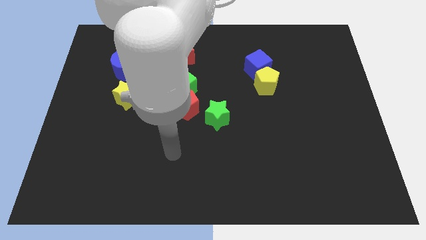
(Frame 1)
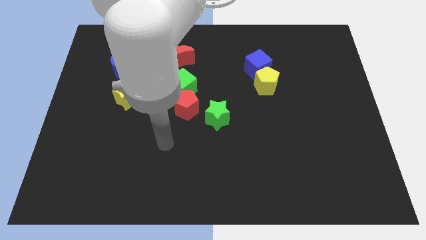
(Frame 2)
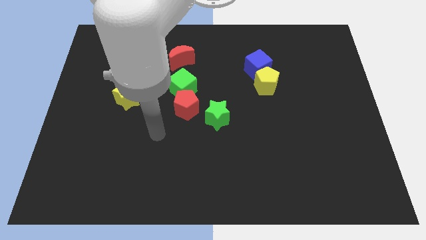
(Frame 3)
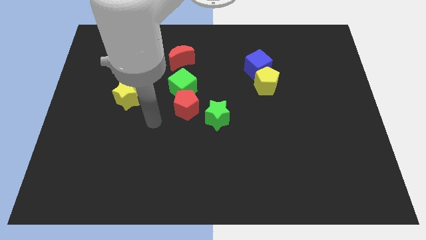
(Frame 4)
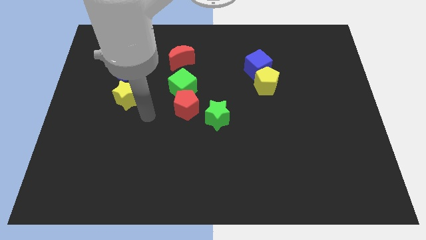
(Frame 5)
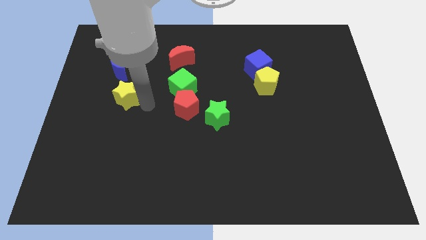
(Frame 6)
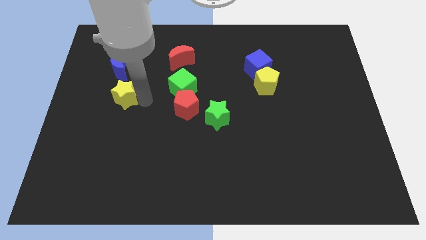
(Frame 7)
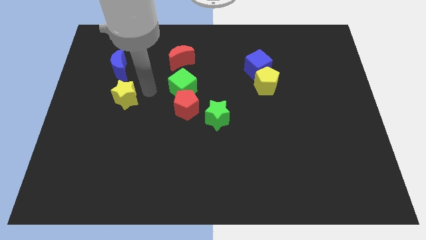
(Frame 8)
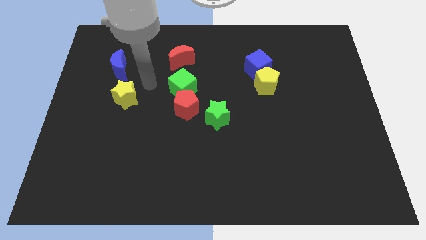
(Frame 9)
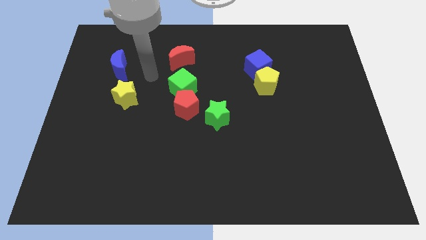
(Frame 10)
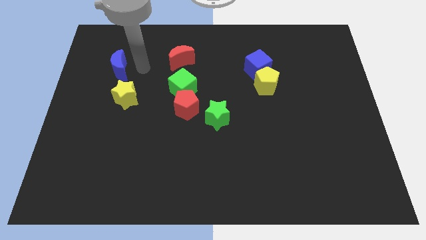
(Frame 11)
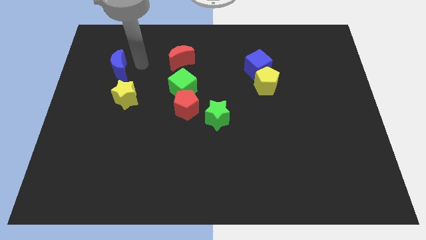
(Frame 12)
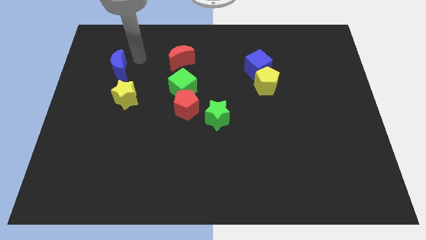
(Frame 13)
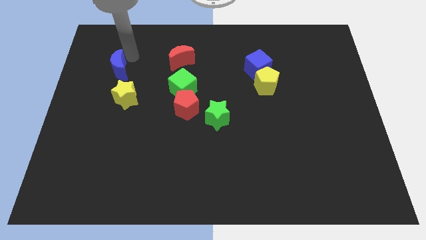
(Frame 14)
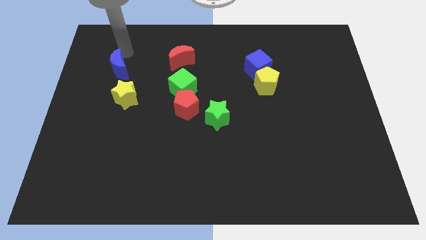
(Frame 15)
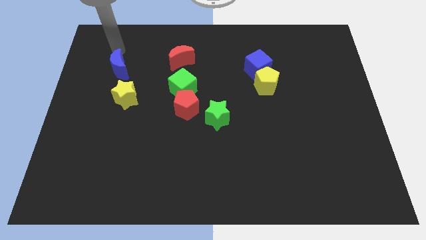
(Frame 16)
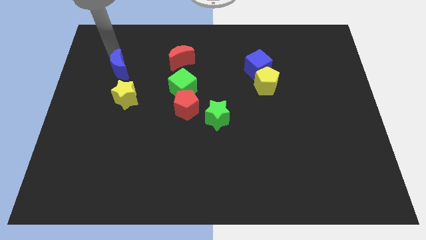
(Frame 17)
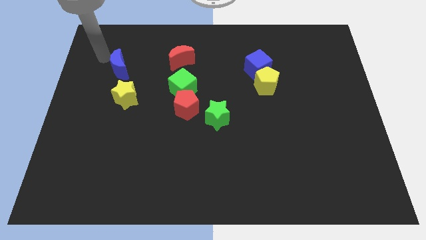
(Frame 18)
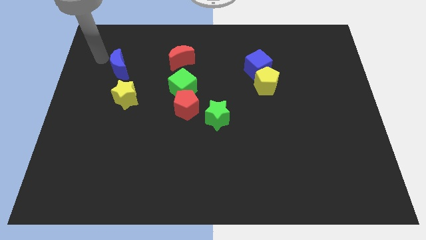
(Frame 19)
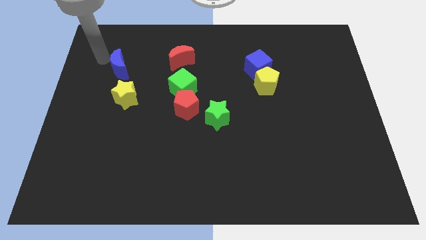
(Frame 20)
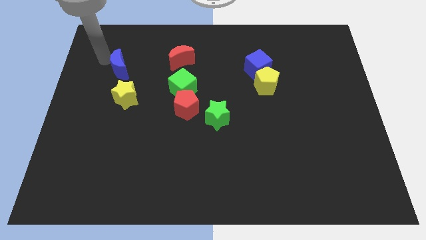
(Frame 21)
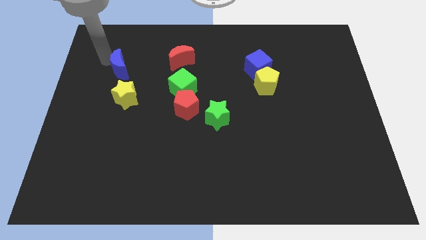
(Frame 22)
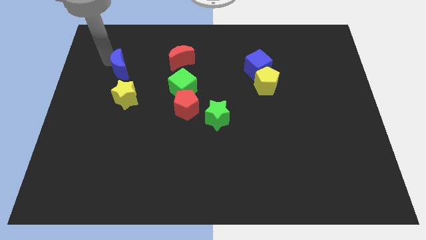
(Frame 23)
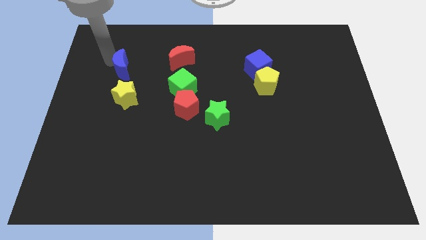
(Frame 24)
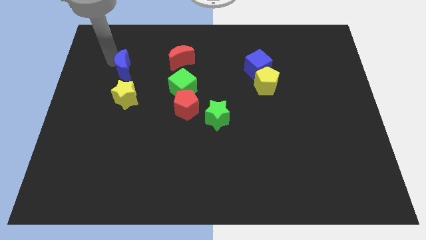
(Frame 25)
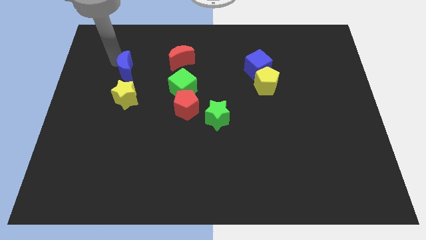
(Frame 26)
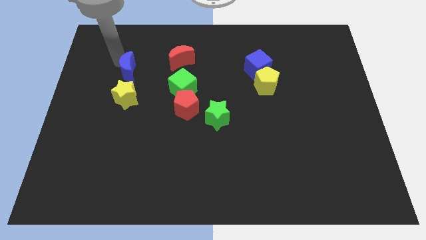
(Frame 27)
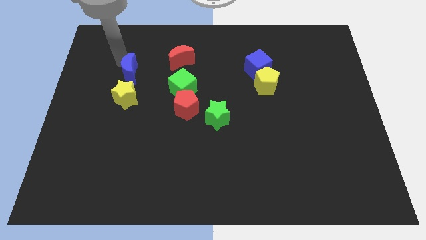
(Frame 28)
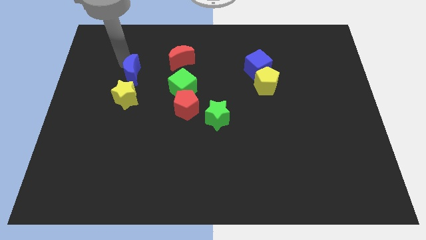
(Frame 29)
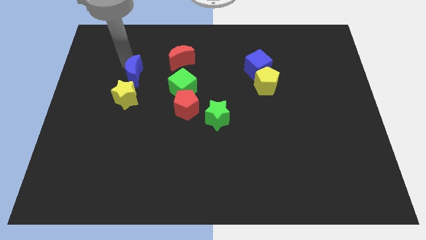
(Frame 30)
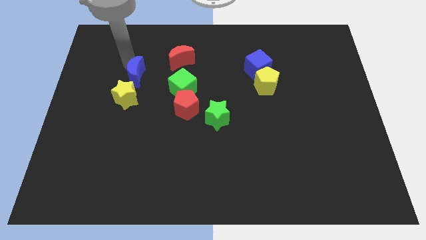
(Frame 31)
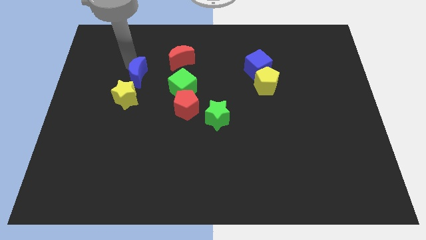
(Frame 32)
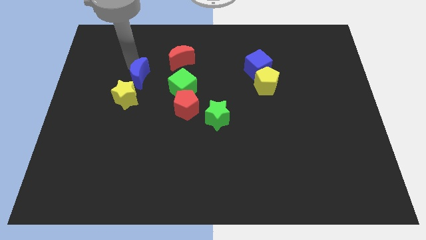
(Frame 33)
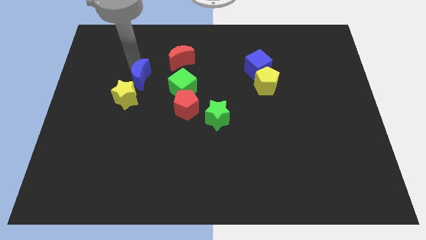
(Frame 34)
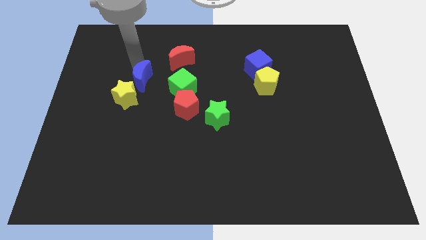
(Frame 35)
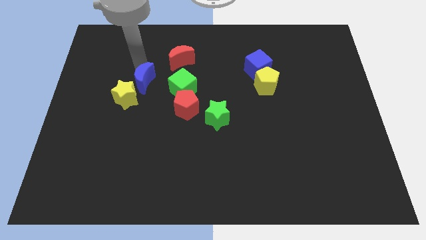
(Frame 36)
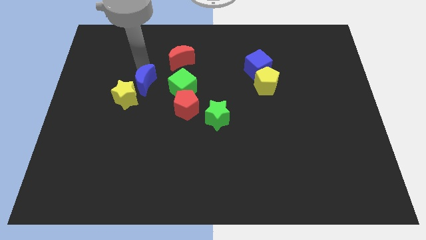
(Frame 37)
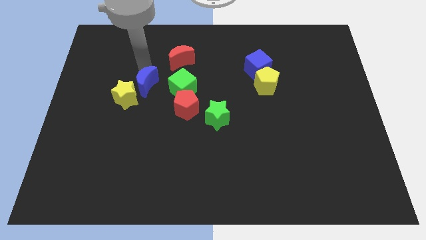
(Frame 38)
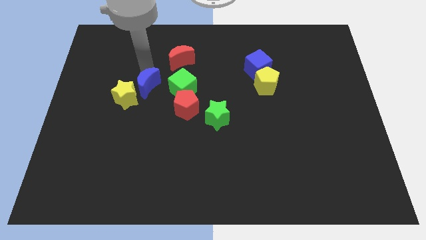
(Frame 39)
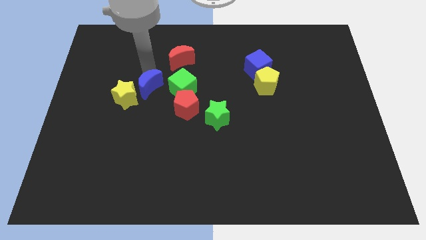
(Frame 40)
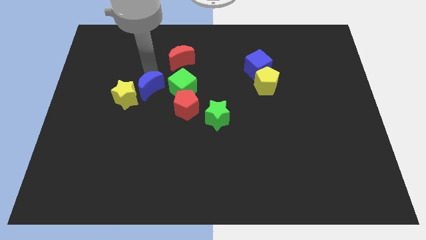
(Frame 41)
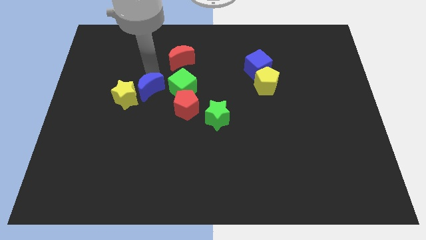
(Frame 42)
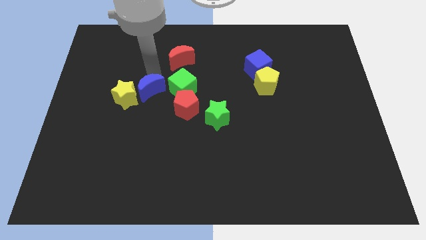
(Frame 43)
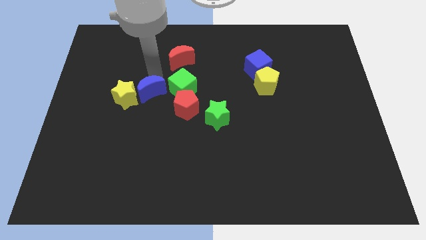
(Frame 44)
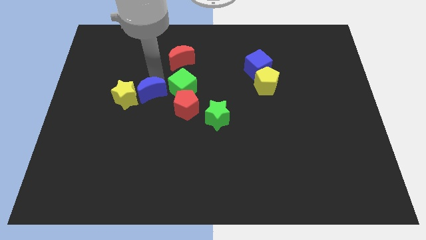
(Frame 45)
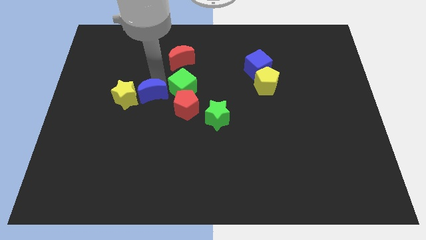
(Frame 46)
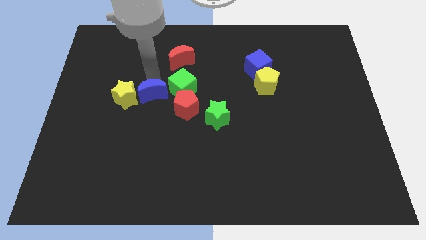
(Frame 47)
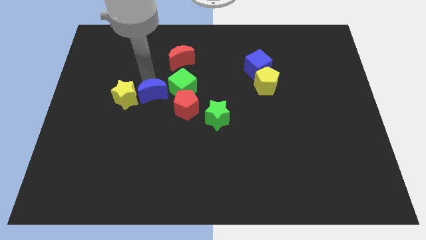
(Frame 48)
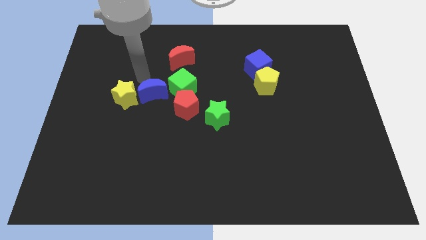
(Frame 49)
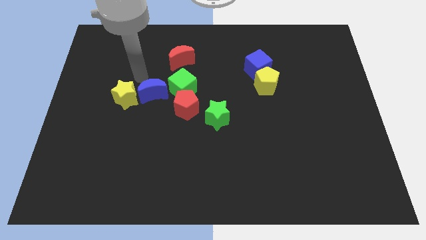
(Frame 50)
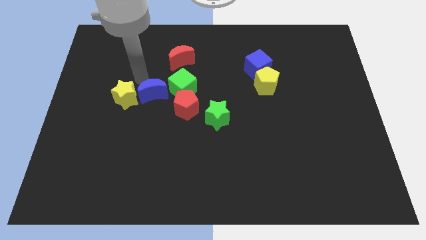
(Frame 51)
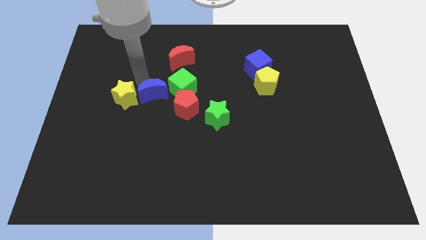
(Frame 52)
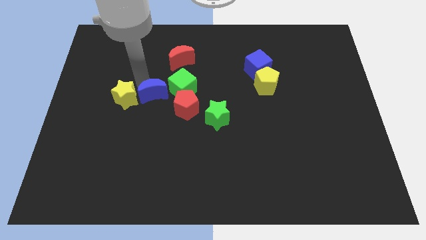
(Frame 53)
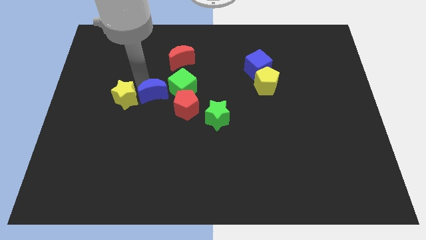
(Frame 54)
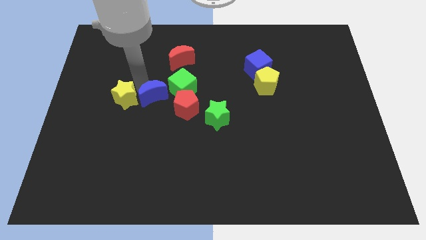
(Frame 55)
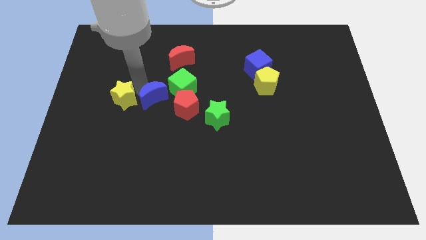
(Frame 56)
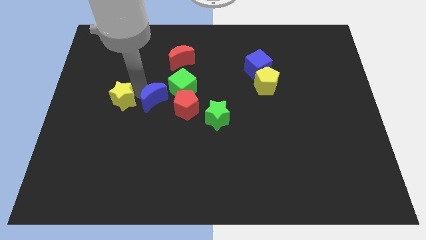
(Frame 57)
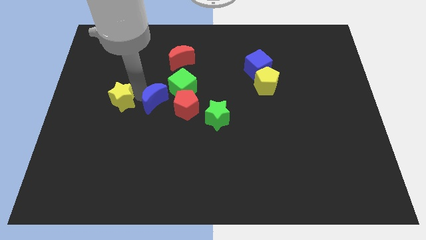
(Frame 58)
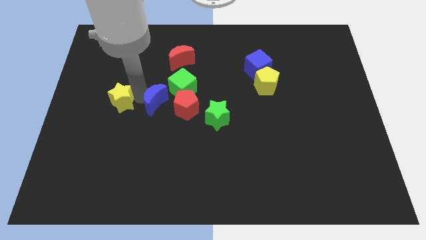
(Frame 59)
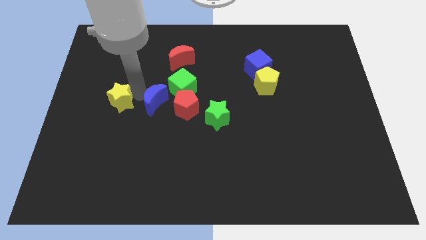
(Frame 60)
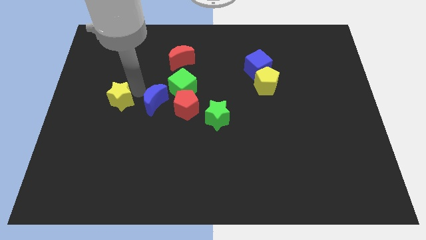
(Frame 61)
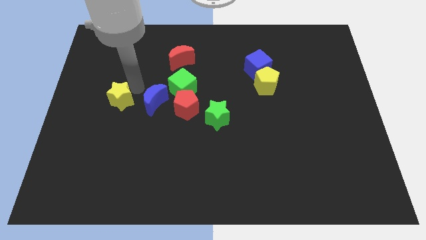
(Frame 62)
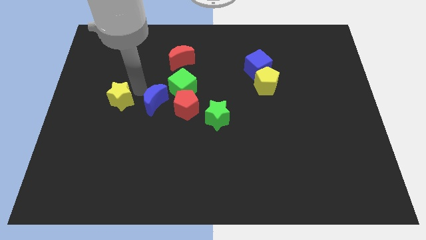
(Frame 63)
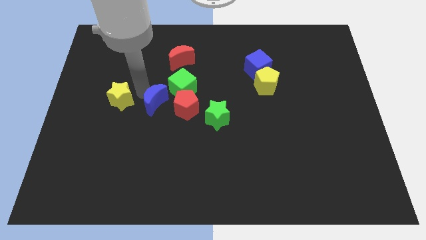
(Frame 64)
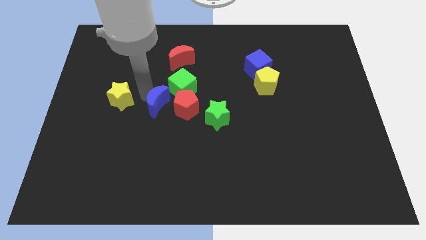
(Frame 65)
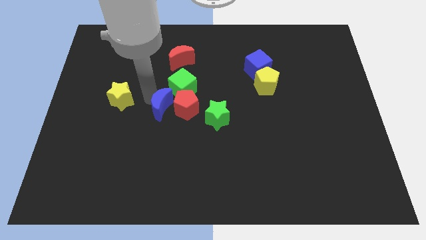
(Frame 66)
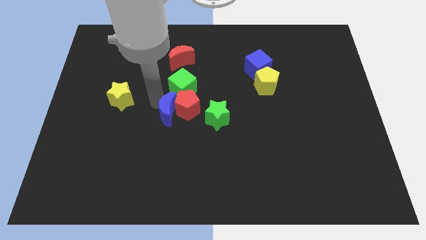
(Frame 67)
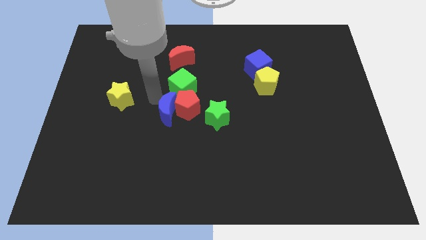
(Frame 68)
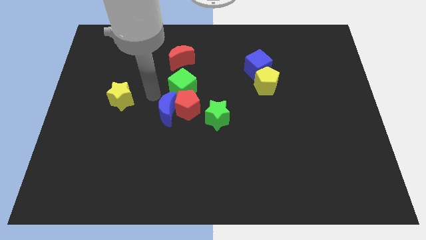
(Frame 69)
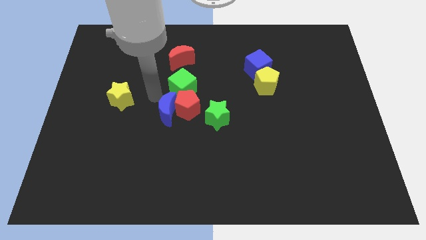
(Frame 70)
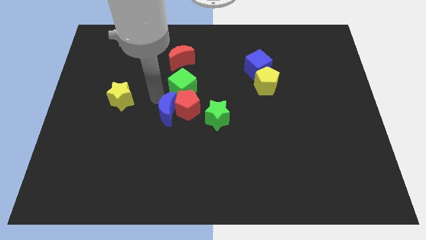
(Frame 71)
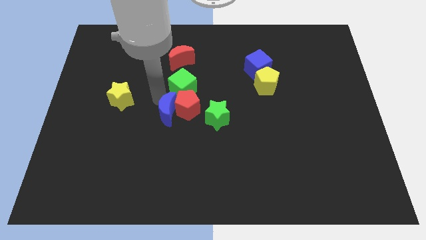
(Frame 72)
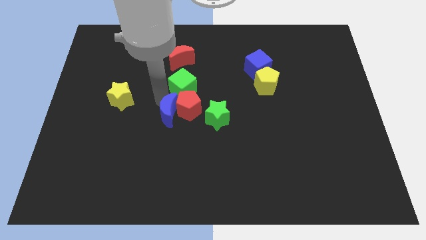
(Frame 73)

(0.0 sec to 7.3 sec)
push the blue moon down and to the right

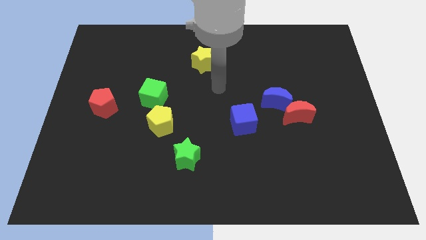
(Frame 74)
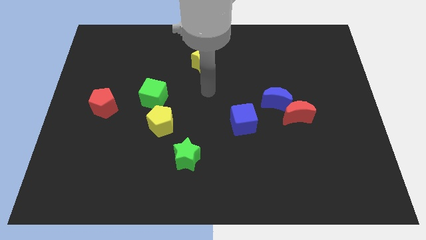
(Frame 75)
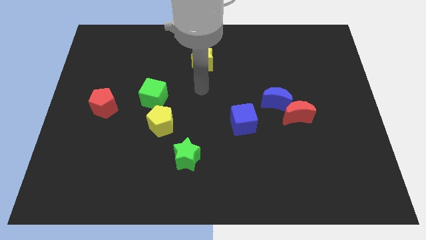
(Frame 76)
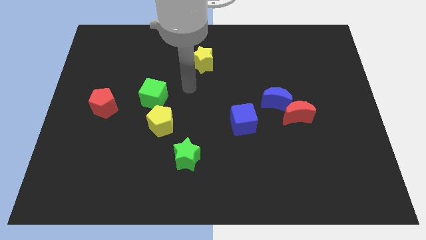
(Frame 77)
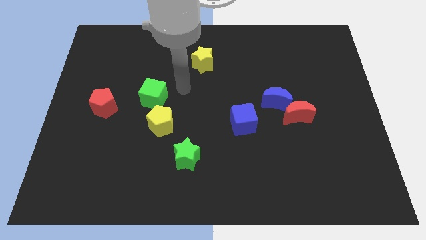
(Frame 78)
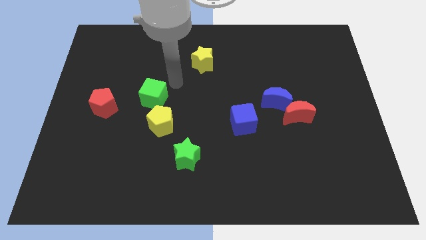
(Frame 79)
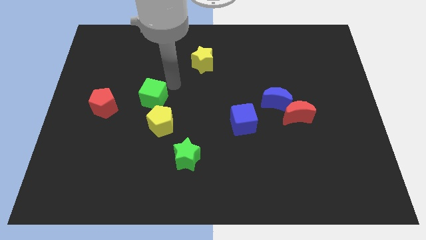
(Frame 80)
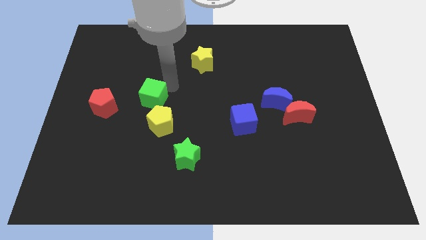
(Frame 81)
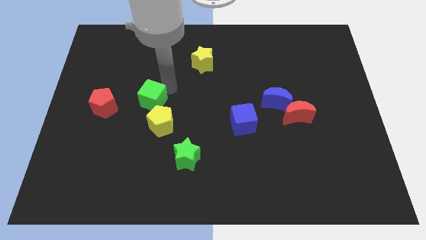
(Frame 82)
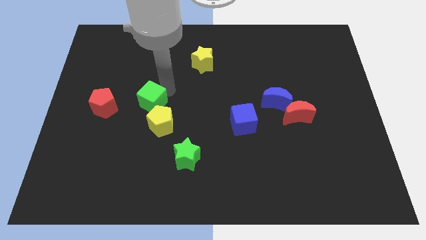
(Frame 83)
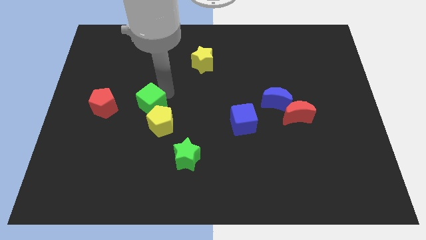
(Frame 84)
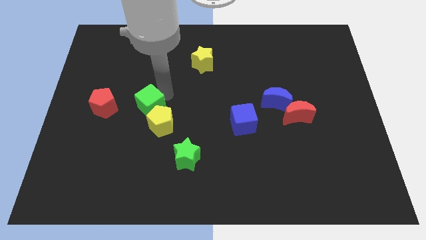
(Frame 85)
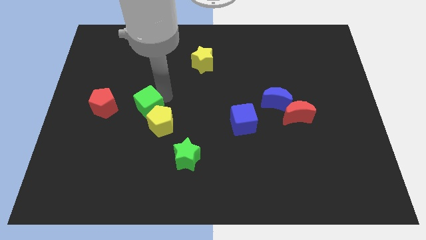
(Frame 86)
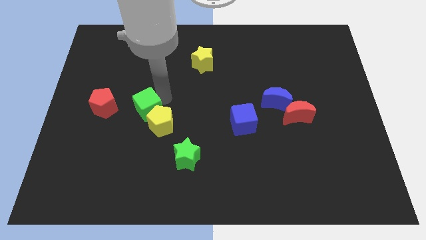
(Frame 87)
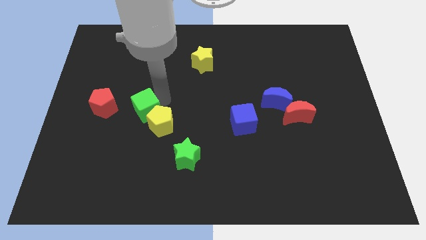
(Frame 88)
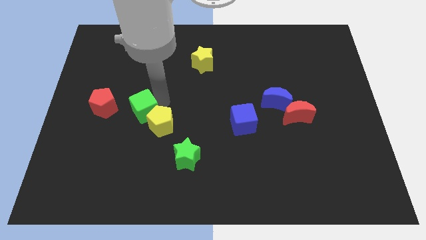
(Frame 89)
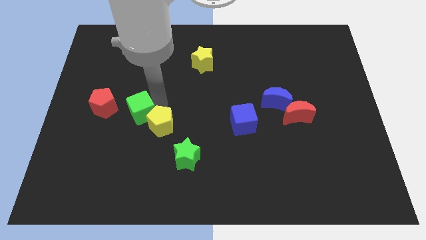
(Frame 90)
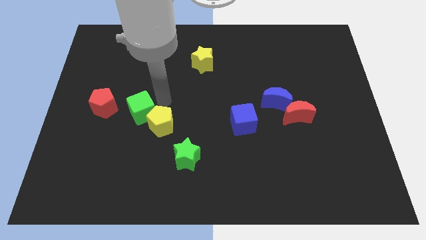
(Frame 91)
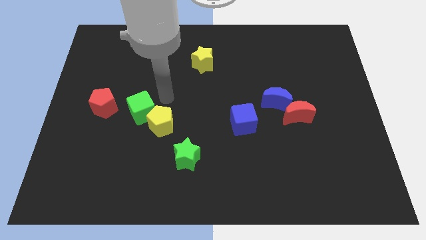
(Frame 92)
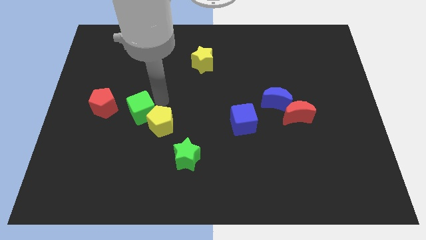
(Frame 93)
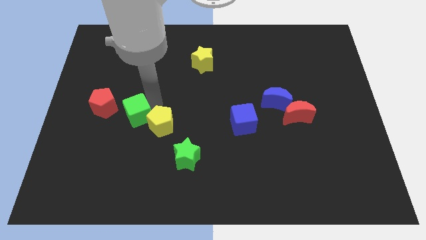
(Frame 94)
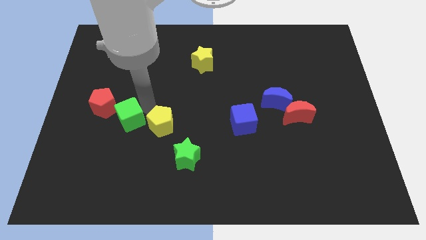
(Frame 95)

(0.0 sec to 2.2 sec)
slightly push the green cube down and to the left
